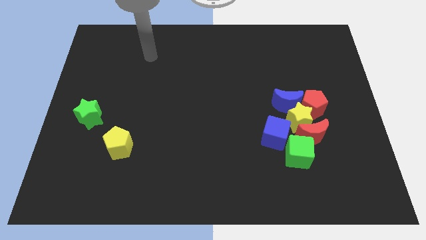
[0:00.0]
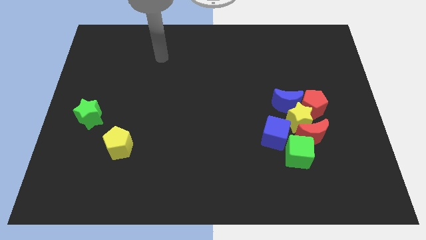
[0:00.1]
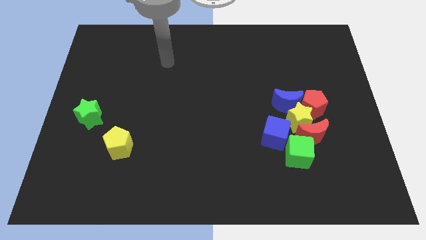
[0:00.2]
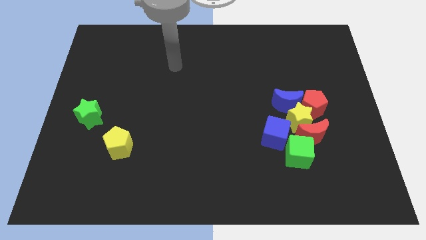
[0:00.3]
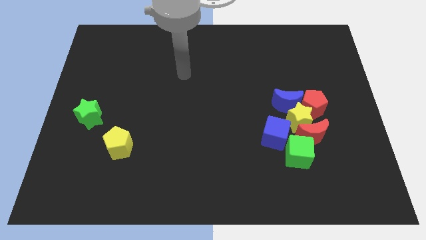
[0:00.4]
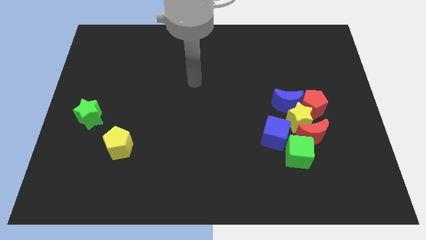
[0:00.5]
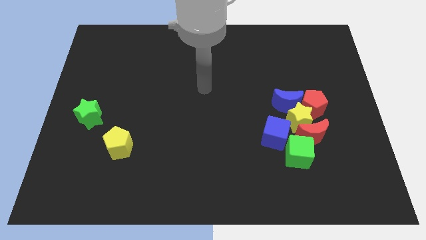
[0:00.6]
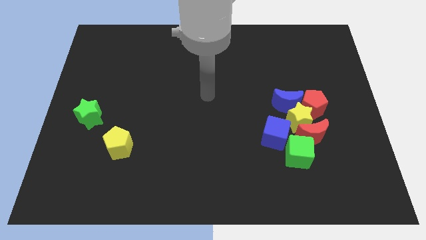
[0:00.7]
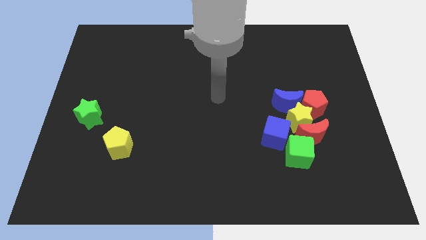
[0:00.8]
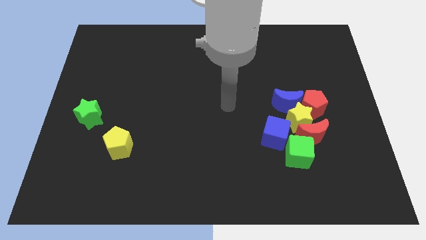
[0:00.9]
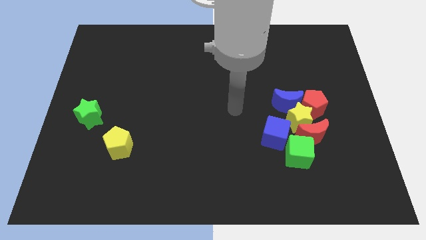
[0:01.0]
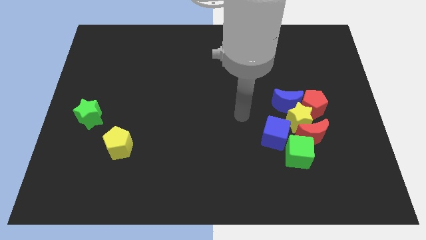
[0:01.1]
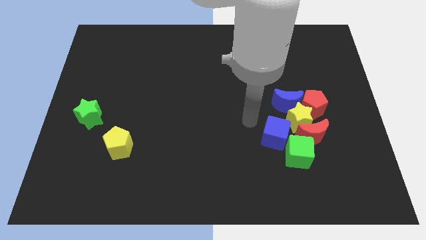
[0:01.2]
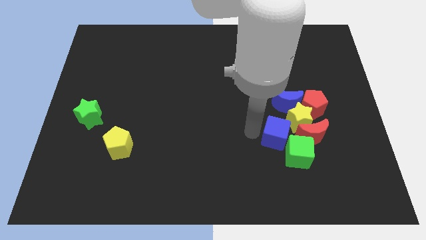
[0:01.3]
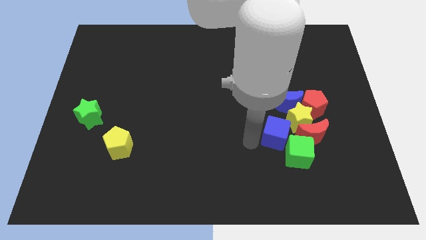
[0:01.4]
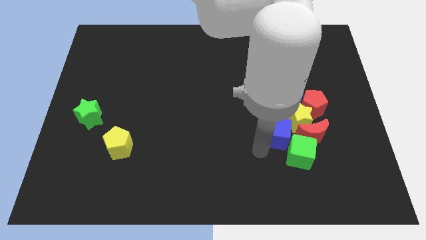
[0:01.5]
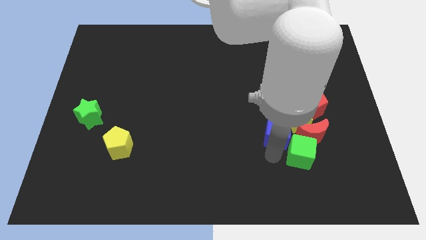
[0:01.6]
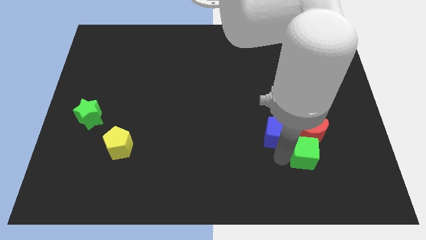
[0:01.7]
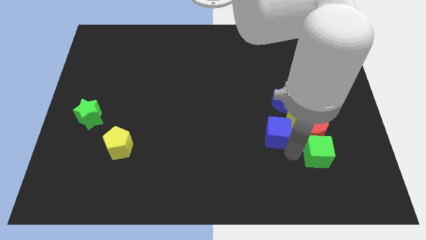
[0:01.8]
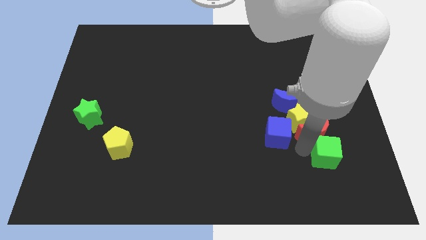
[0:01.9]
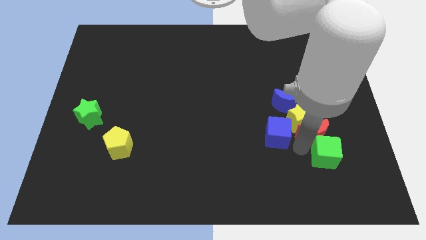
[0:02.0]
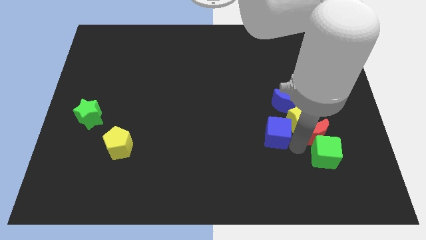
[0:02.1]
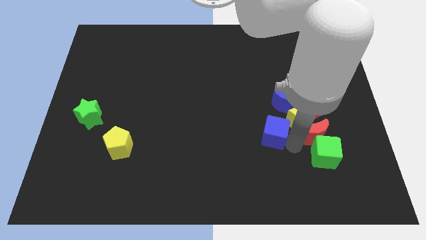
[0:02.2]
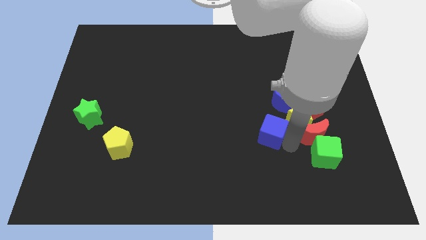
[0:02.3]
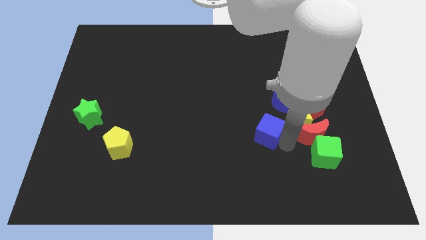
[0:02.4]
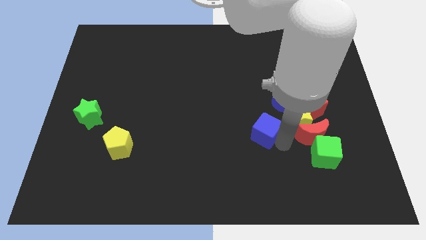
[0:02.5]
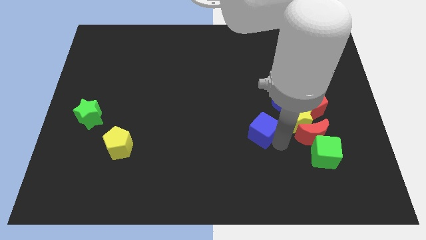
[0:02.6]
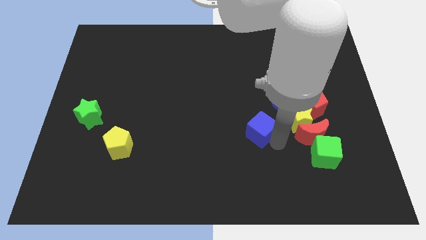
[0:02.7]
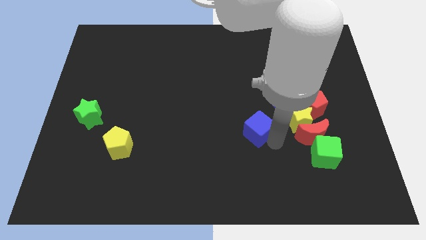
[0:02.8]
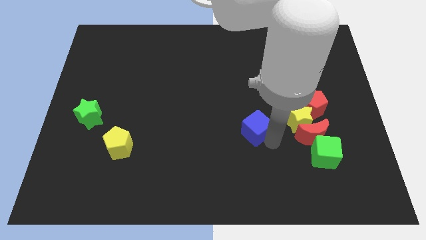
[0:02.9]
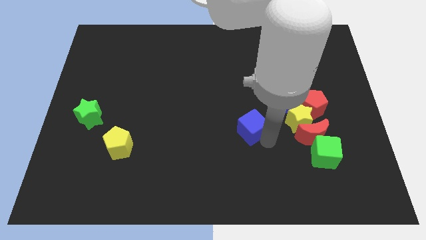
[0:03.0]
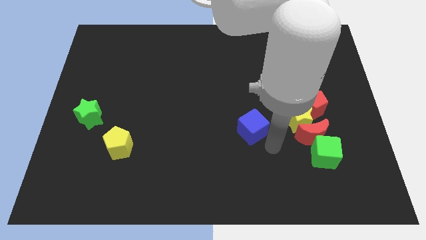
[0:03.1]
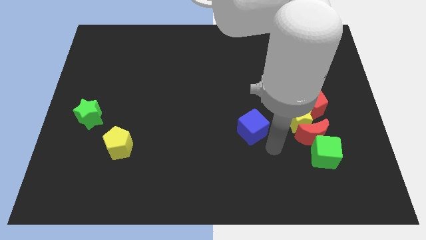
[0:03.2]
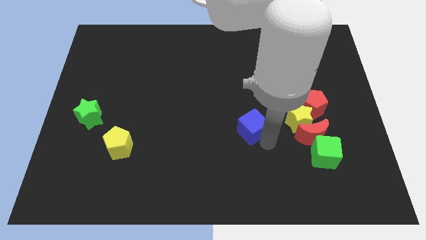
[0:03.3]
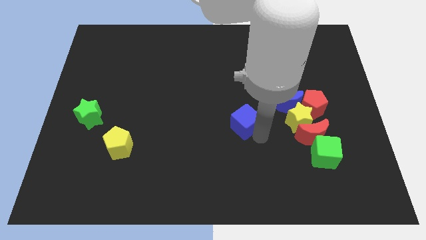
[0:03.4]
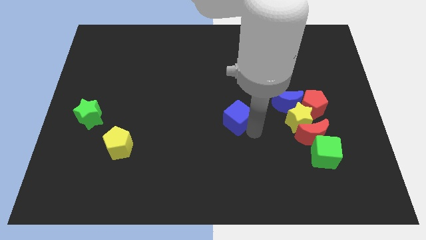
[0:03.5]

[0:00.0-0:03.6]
slightly move the blue cube diagonally upwards and left

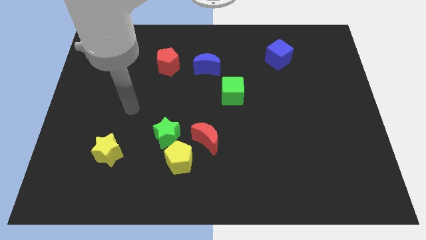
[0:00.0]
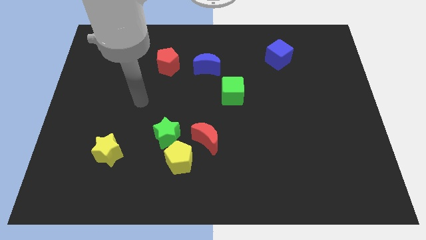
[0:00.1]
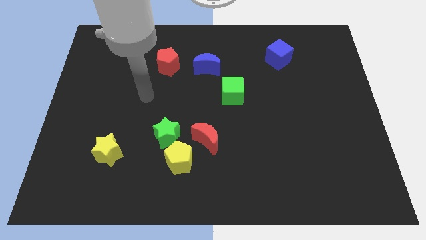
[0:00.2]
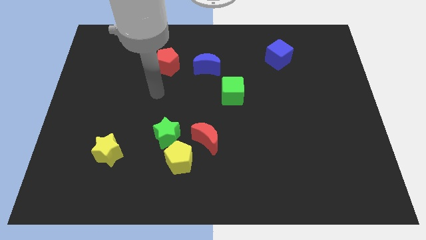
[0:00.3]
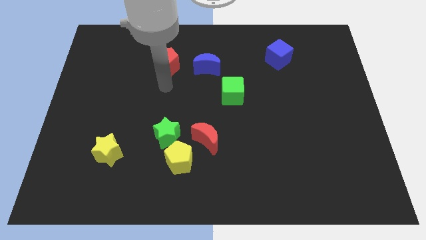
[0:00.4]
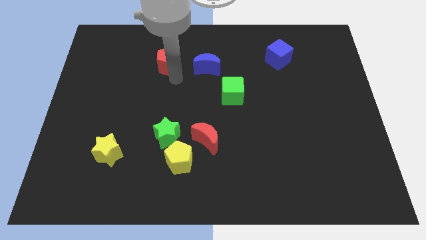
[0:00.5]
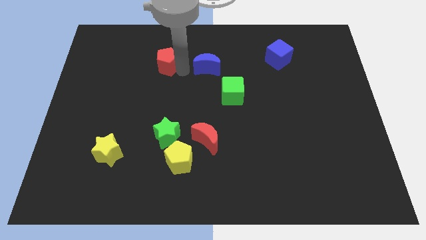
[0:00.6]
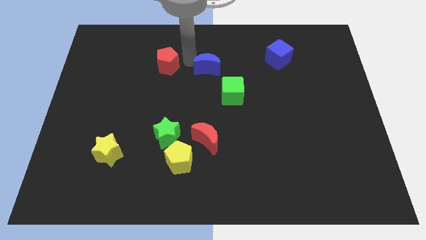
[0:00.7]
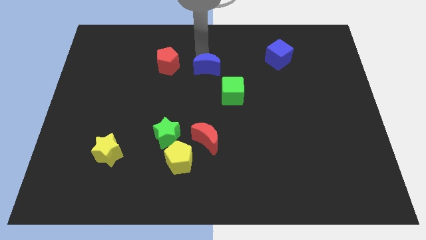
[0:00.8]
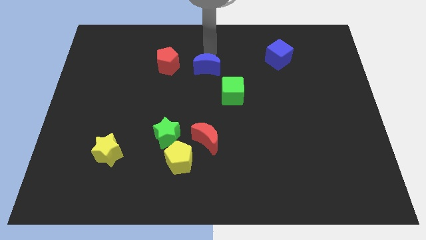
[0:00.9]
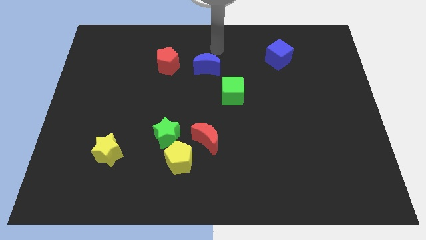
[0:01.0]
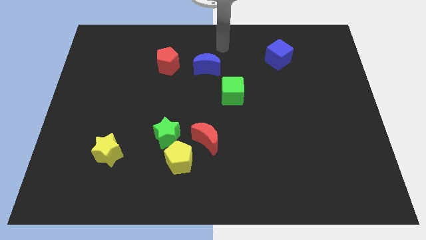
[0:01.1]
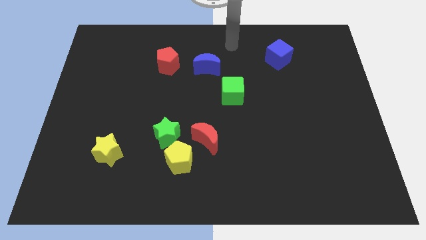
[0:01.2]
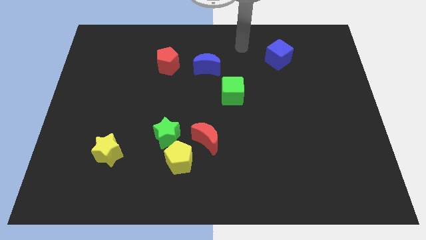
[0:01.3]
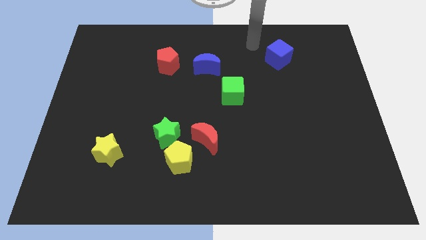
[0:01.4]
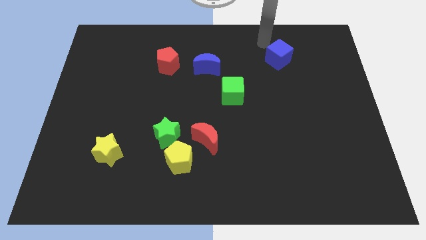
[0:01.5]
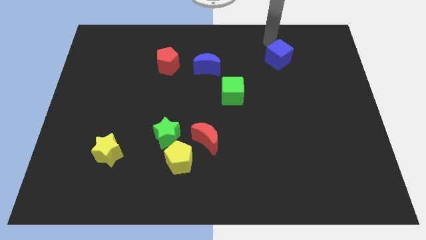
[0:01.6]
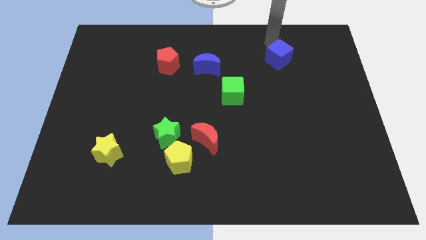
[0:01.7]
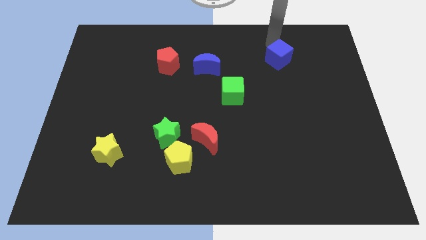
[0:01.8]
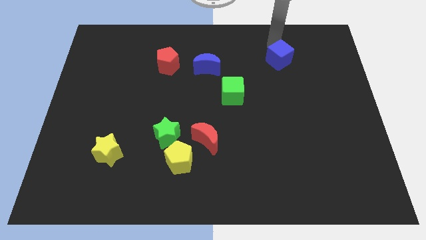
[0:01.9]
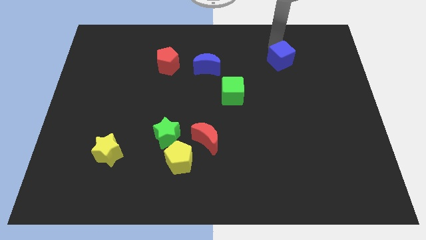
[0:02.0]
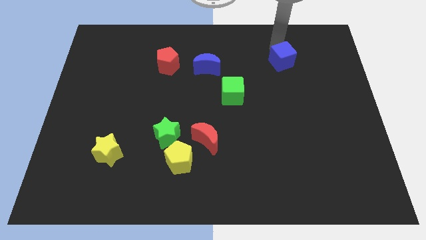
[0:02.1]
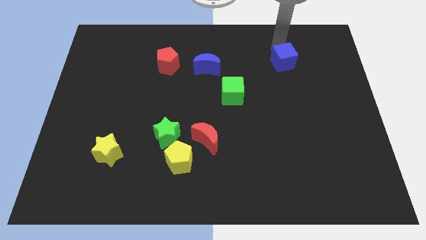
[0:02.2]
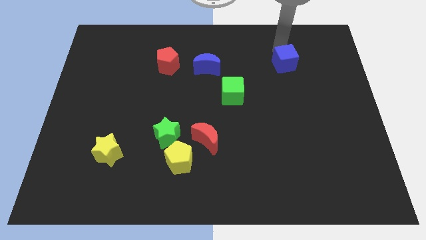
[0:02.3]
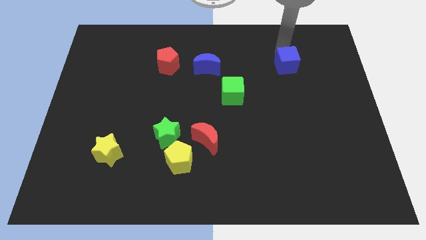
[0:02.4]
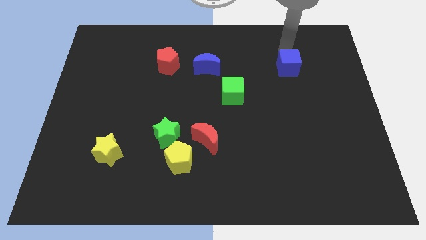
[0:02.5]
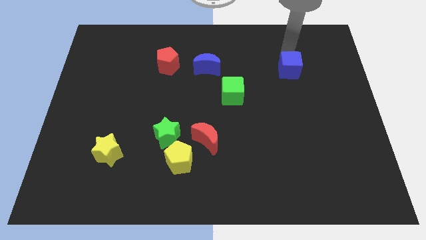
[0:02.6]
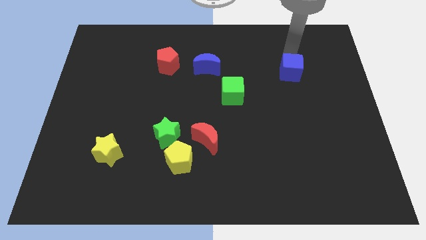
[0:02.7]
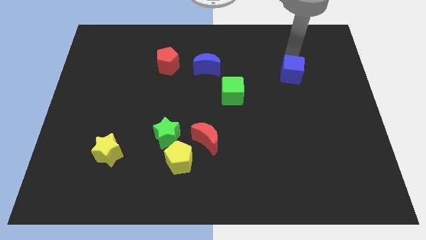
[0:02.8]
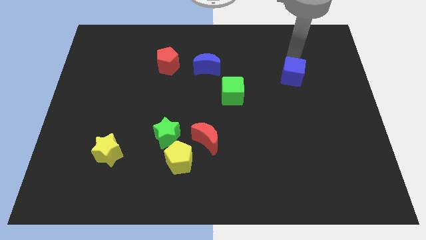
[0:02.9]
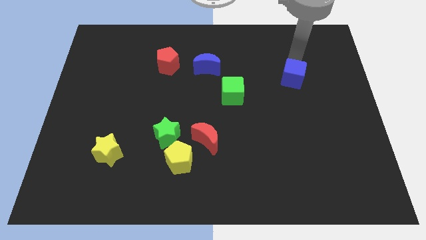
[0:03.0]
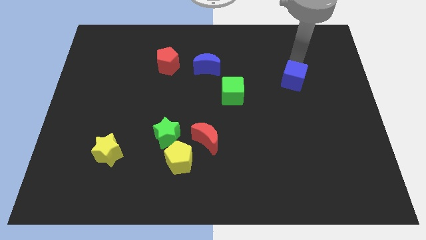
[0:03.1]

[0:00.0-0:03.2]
slide the blue cube downwards a bit

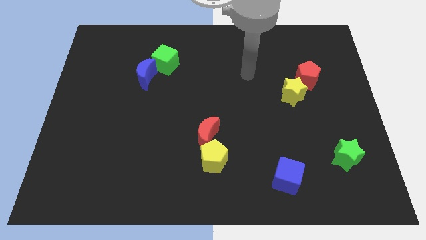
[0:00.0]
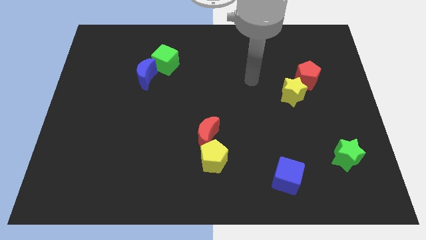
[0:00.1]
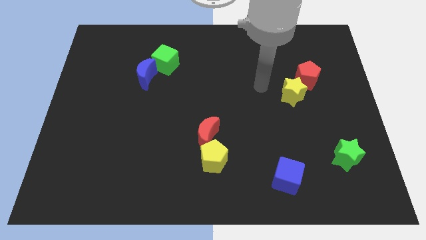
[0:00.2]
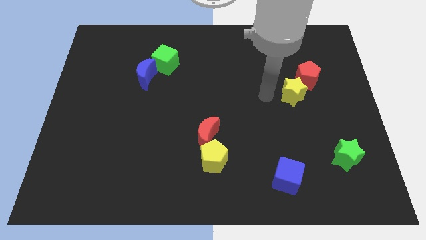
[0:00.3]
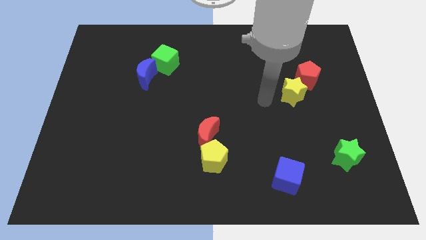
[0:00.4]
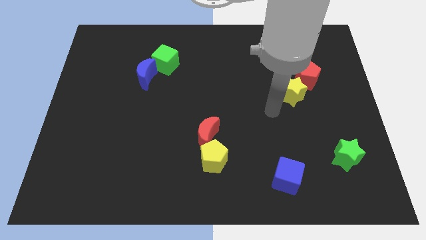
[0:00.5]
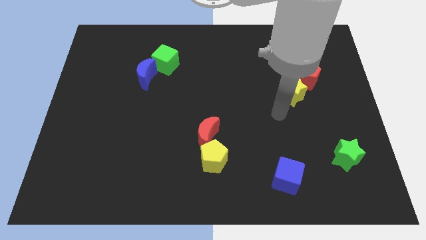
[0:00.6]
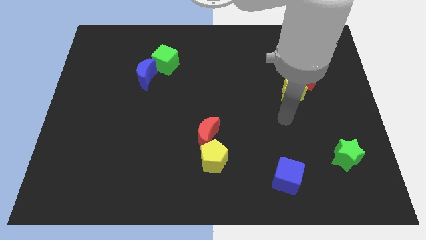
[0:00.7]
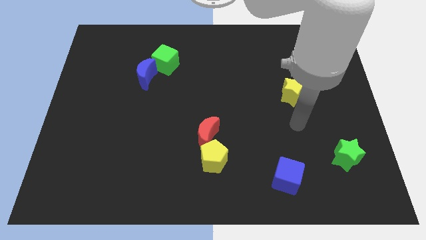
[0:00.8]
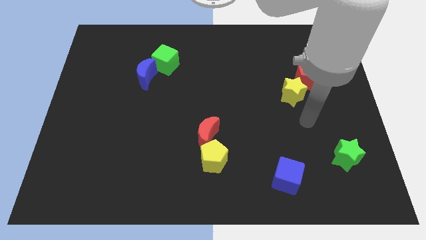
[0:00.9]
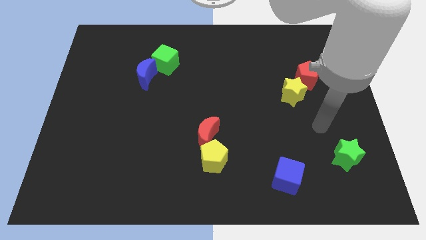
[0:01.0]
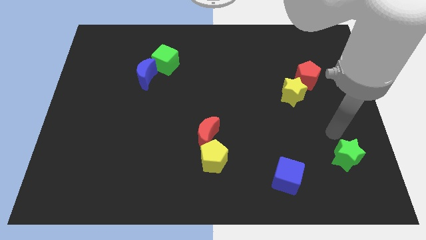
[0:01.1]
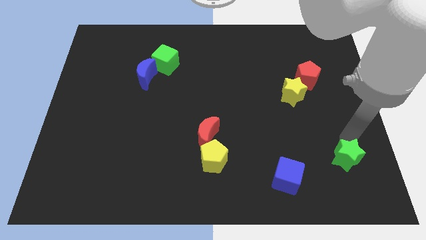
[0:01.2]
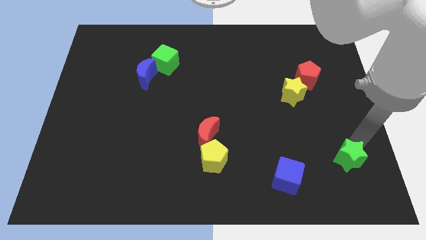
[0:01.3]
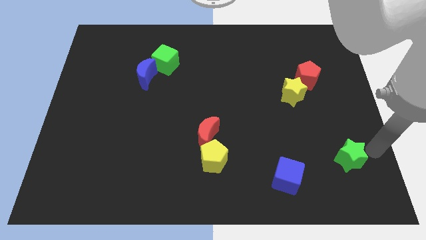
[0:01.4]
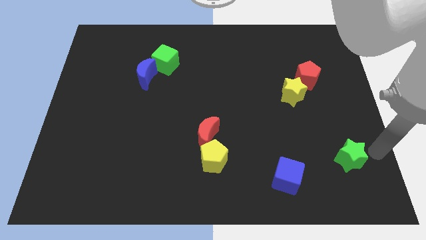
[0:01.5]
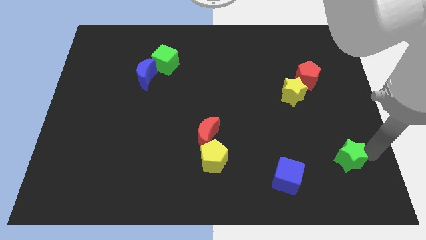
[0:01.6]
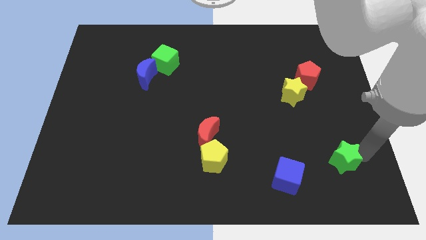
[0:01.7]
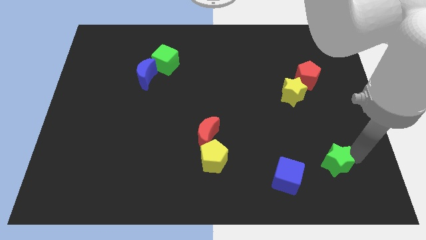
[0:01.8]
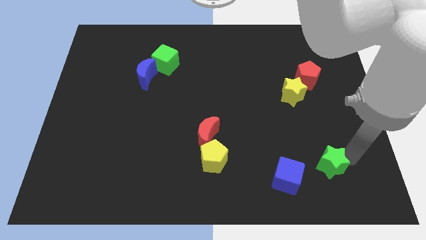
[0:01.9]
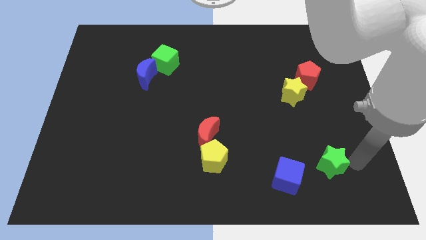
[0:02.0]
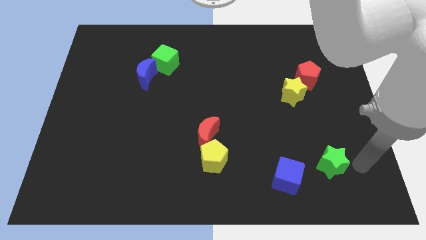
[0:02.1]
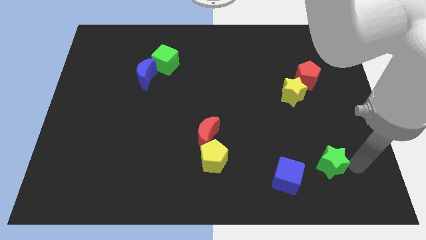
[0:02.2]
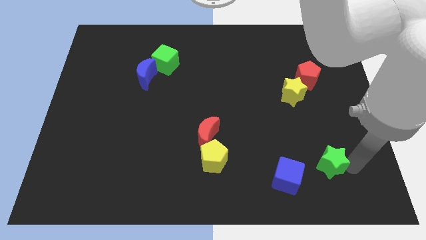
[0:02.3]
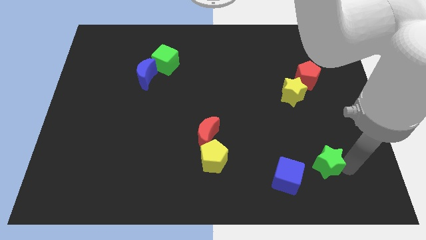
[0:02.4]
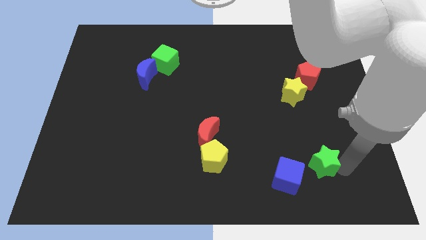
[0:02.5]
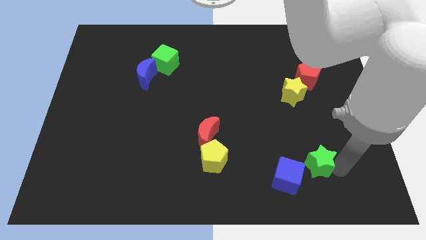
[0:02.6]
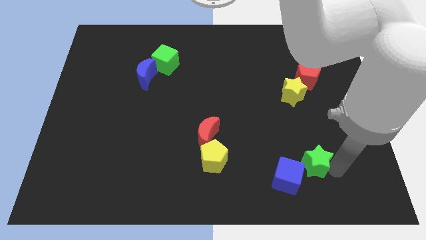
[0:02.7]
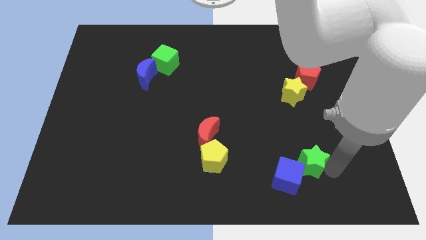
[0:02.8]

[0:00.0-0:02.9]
slightly slide the green star left
